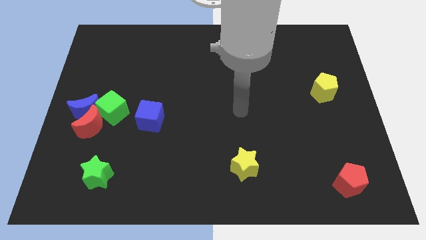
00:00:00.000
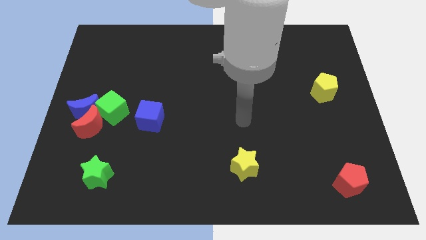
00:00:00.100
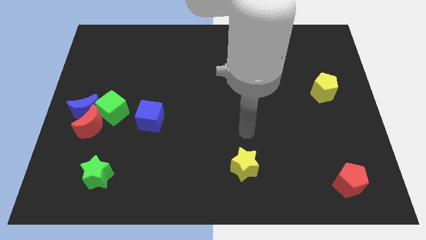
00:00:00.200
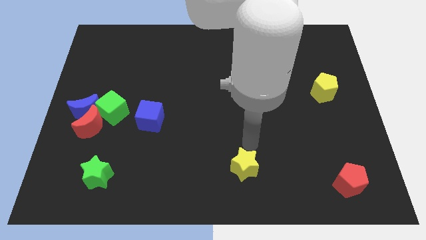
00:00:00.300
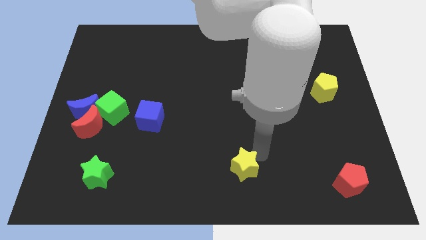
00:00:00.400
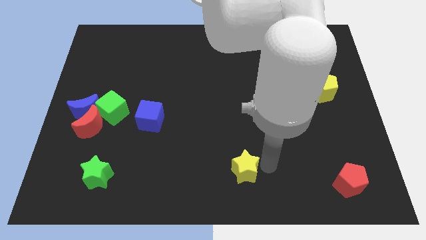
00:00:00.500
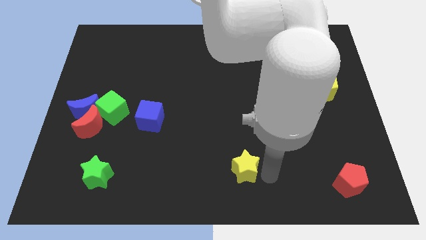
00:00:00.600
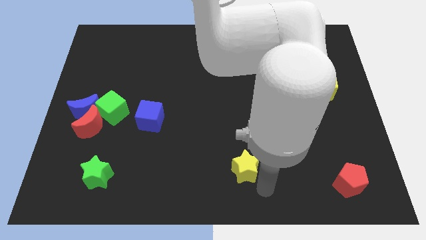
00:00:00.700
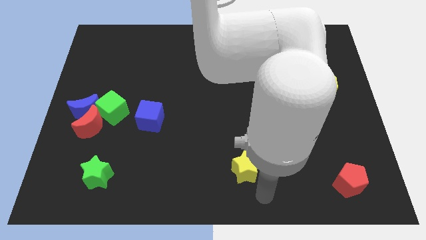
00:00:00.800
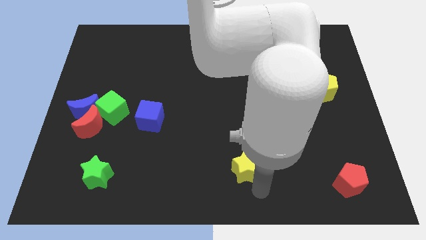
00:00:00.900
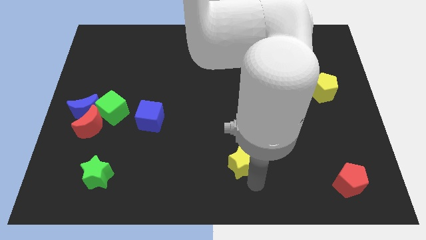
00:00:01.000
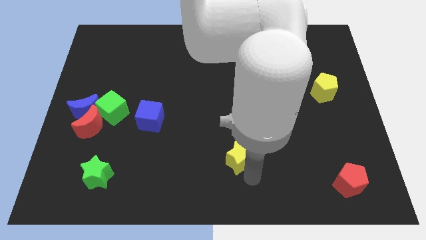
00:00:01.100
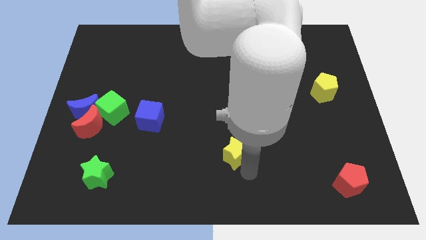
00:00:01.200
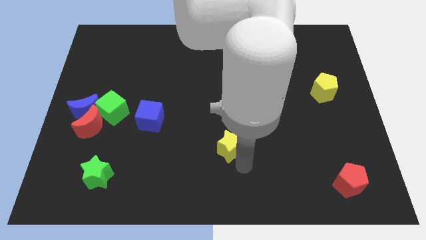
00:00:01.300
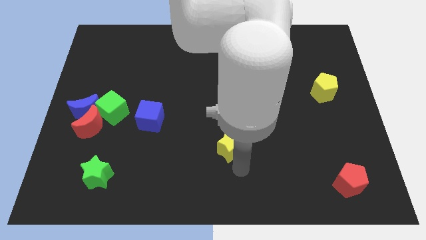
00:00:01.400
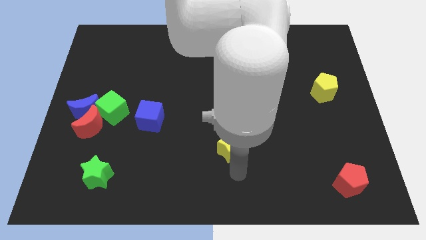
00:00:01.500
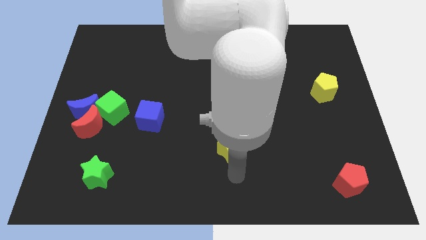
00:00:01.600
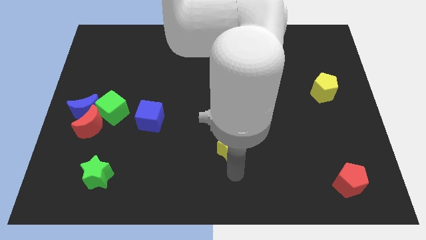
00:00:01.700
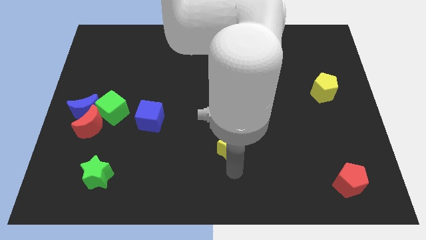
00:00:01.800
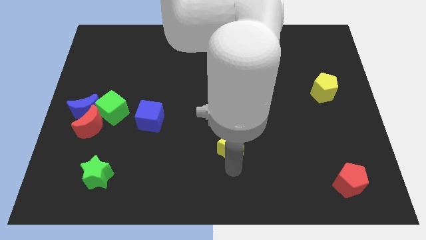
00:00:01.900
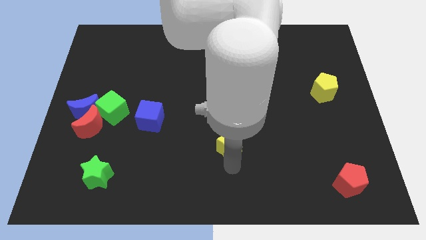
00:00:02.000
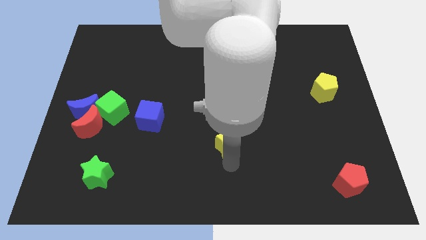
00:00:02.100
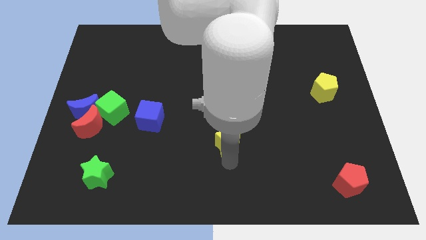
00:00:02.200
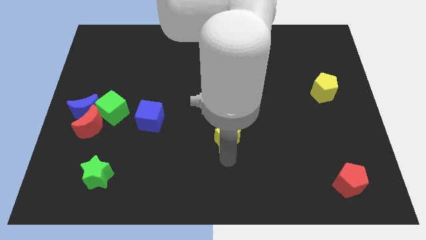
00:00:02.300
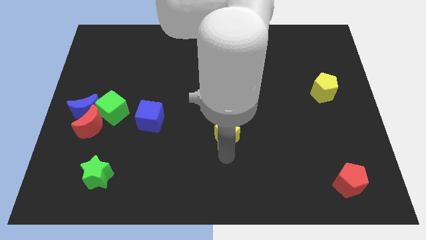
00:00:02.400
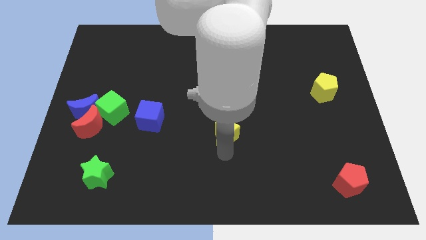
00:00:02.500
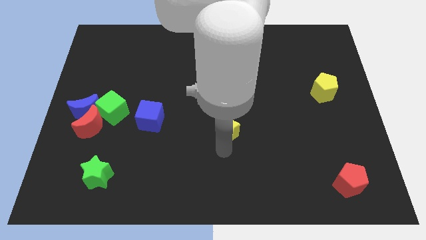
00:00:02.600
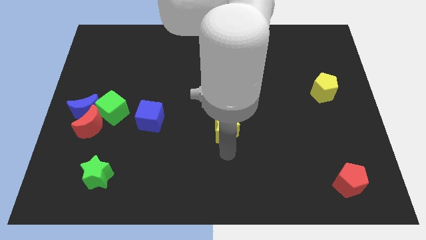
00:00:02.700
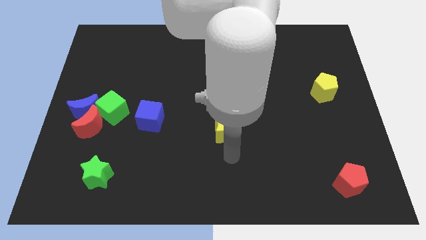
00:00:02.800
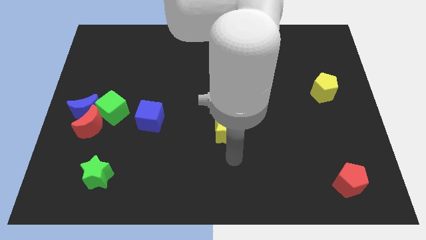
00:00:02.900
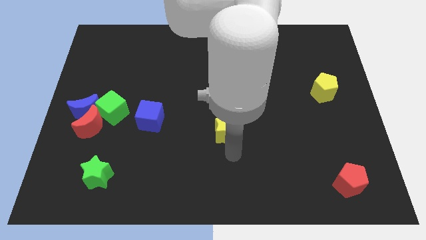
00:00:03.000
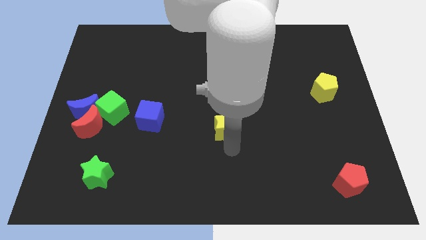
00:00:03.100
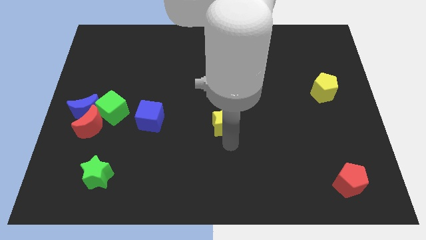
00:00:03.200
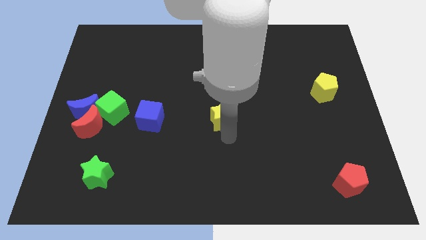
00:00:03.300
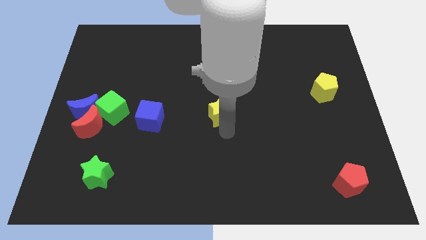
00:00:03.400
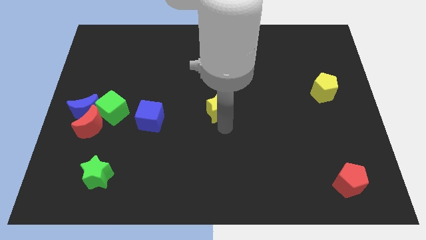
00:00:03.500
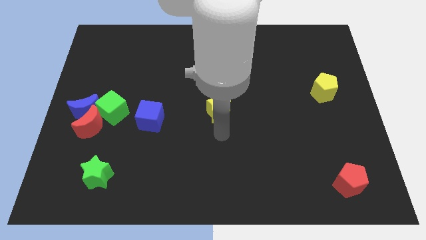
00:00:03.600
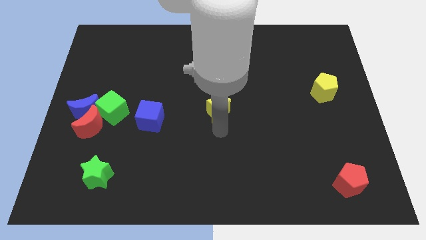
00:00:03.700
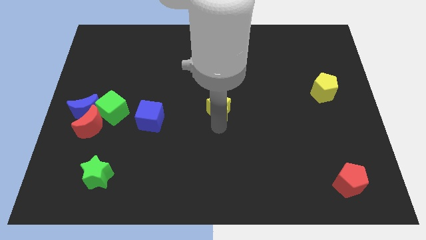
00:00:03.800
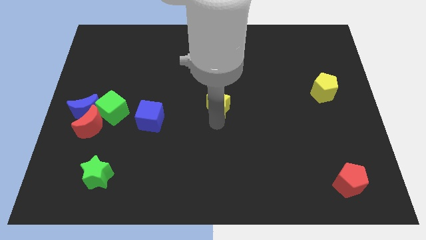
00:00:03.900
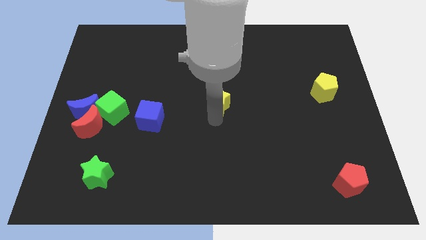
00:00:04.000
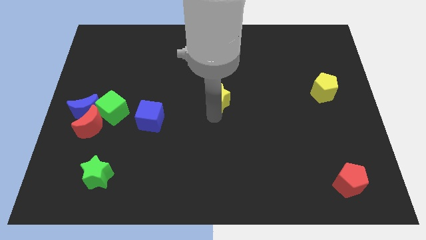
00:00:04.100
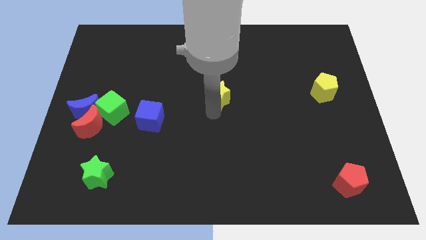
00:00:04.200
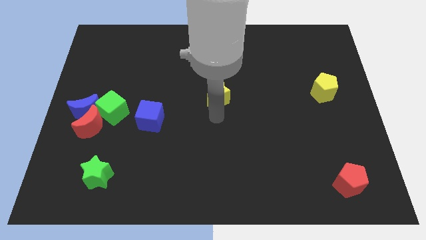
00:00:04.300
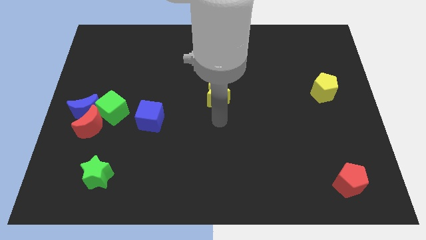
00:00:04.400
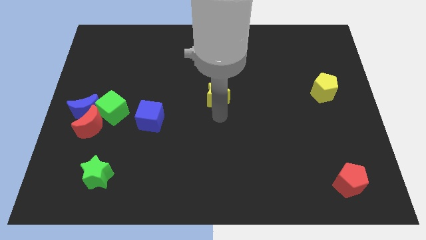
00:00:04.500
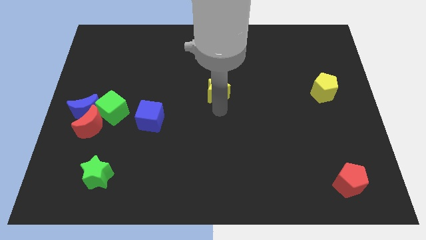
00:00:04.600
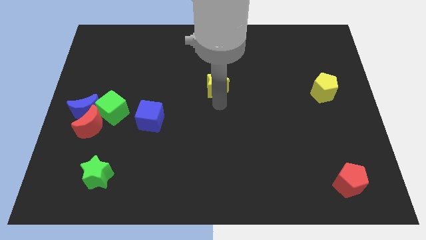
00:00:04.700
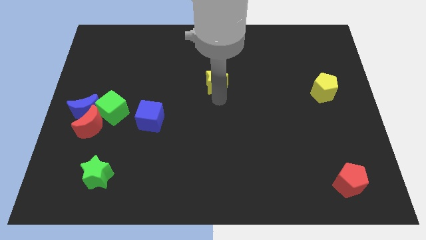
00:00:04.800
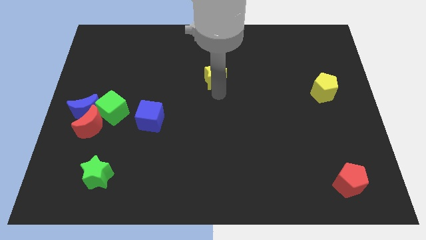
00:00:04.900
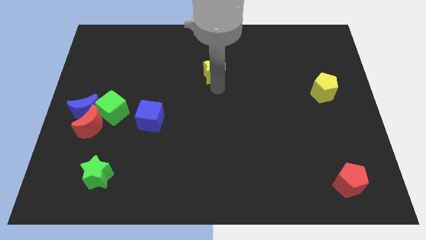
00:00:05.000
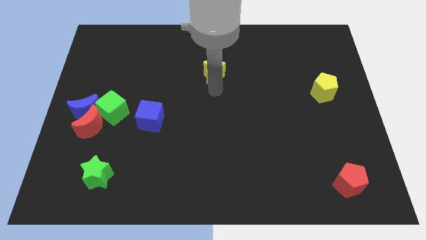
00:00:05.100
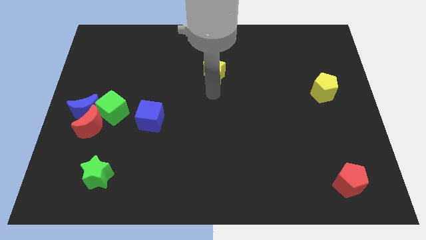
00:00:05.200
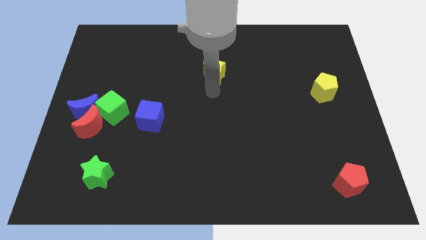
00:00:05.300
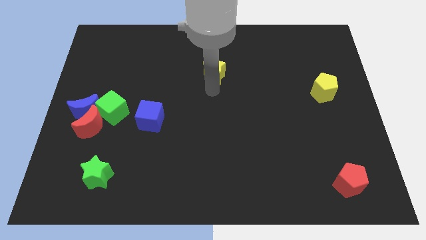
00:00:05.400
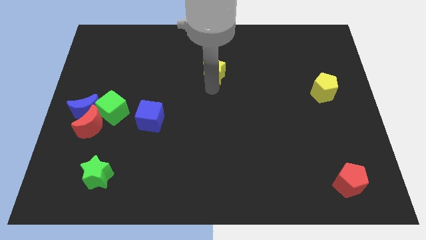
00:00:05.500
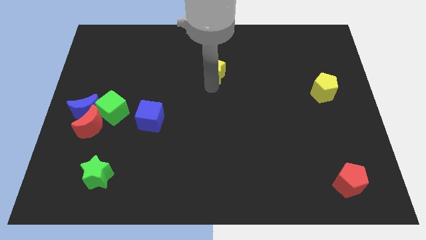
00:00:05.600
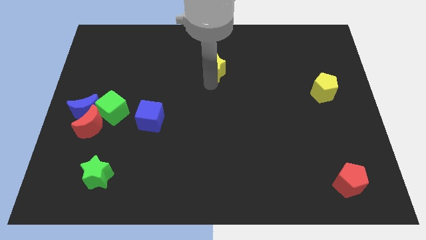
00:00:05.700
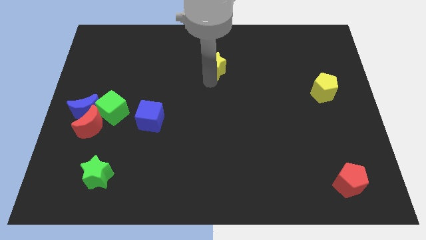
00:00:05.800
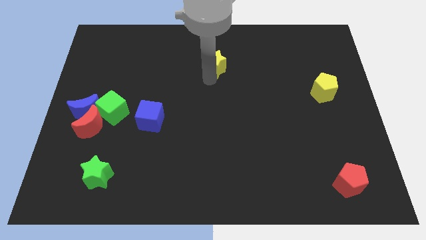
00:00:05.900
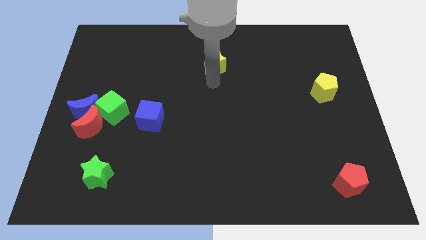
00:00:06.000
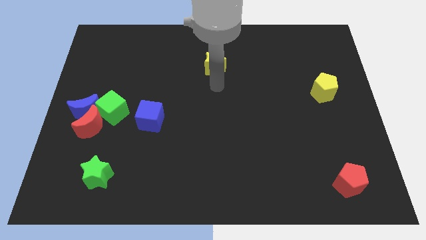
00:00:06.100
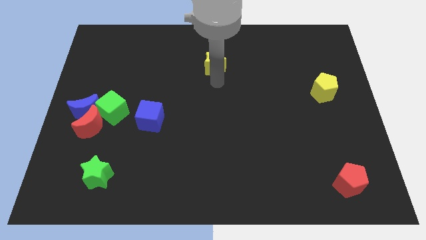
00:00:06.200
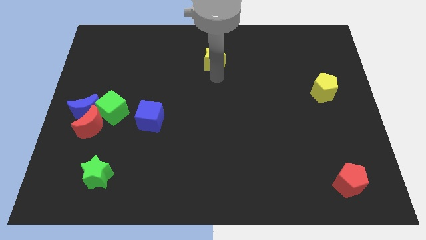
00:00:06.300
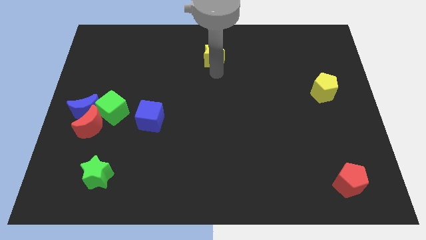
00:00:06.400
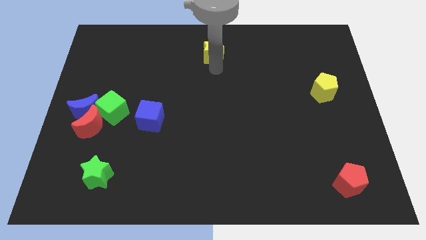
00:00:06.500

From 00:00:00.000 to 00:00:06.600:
push the yellow star to the towards your base
